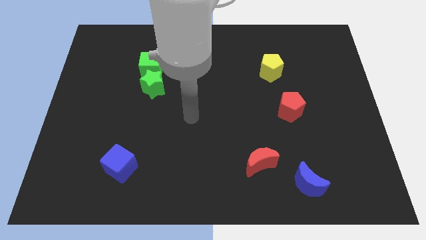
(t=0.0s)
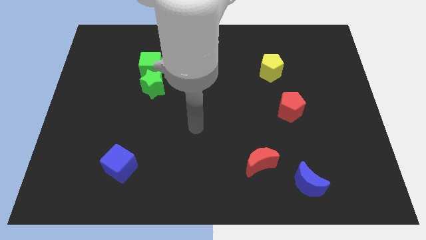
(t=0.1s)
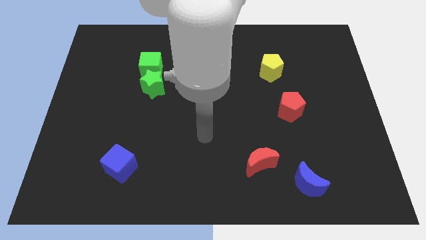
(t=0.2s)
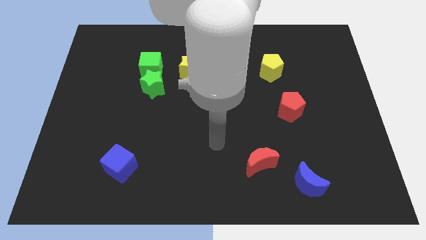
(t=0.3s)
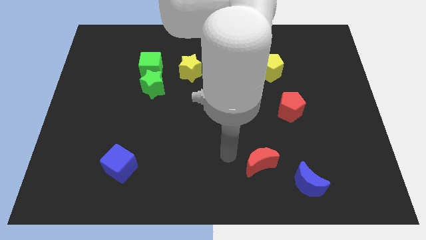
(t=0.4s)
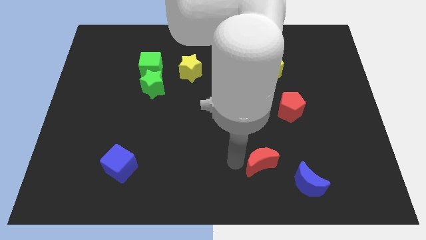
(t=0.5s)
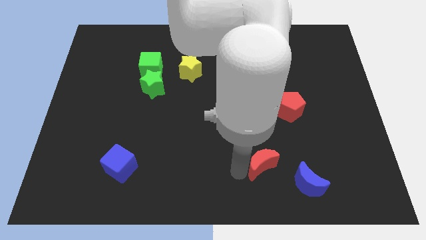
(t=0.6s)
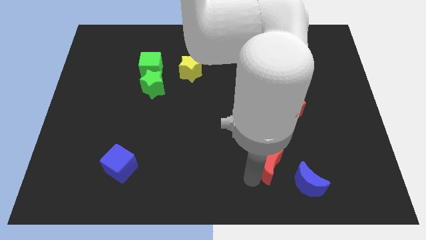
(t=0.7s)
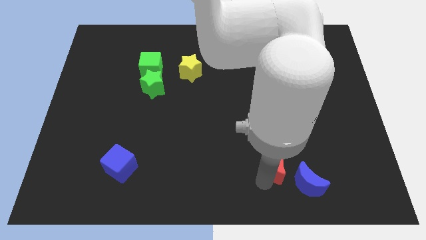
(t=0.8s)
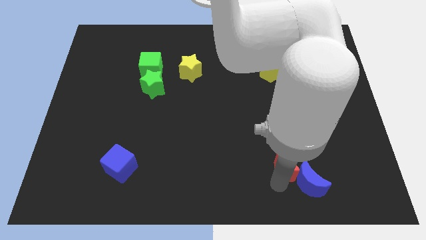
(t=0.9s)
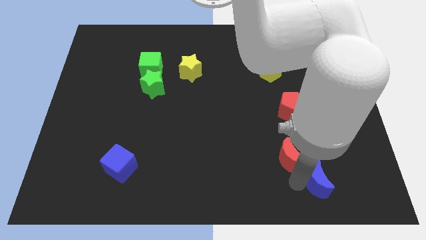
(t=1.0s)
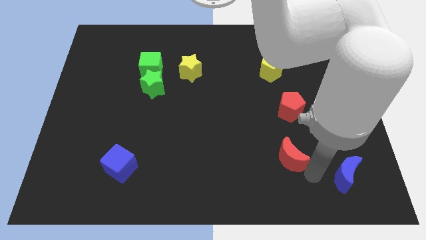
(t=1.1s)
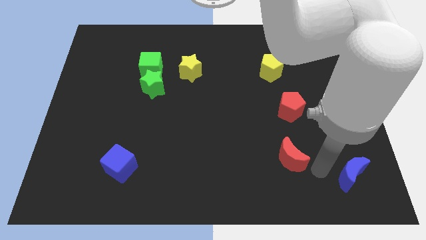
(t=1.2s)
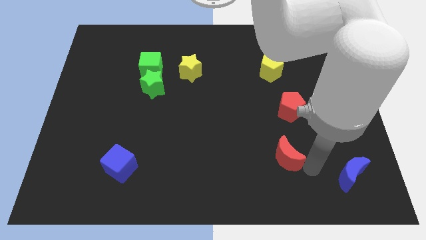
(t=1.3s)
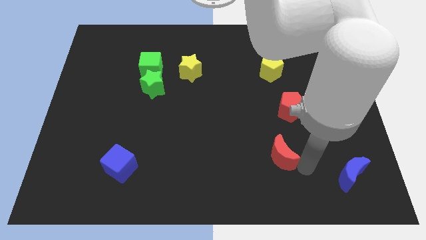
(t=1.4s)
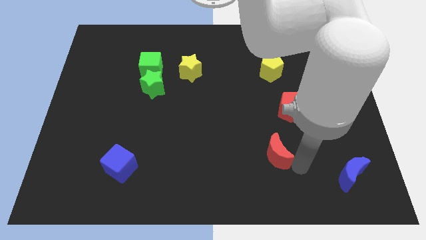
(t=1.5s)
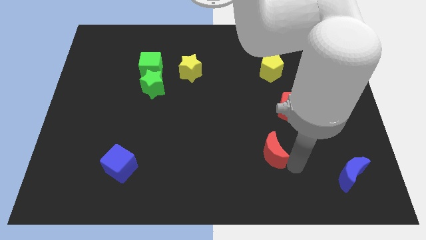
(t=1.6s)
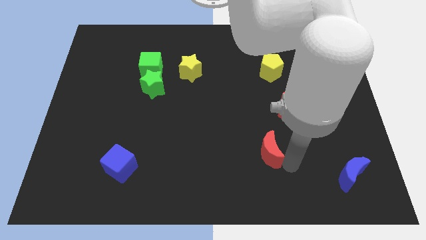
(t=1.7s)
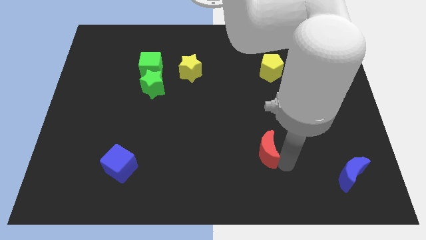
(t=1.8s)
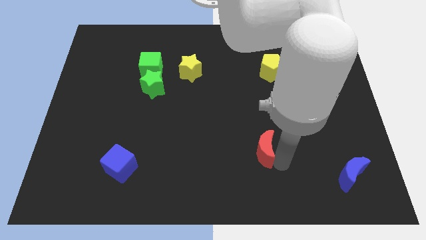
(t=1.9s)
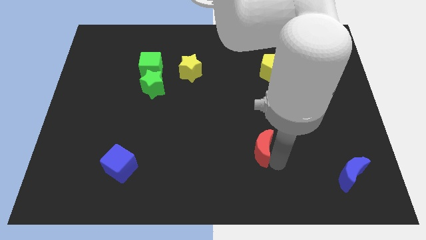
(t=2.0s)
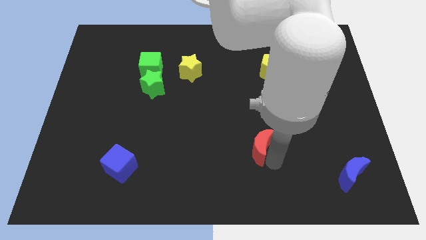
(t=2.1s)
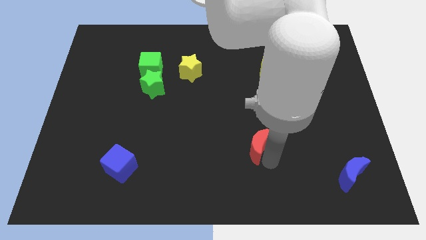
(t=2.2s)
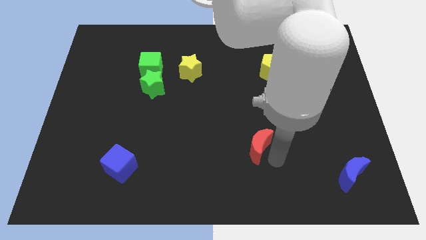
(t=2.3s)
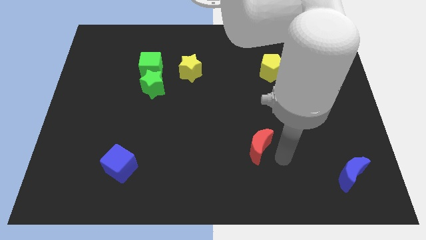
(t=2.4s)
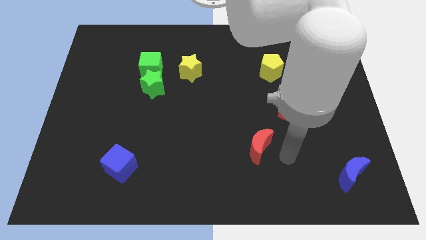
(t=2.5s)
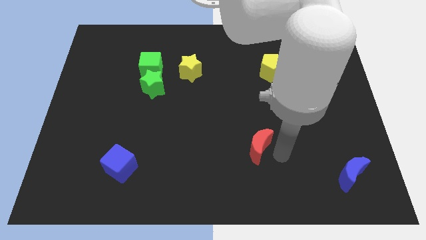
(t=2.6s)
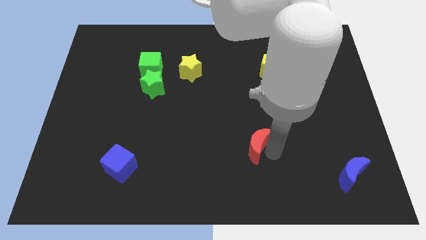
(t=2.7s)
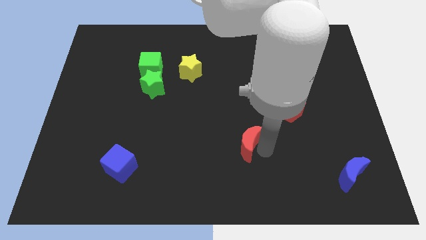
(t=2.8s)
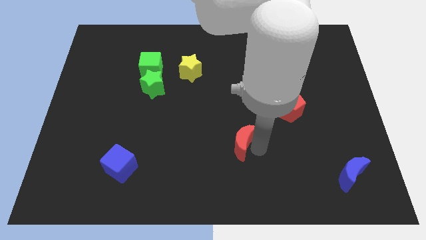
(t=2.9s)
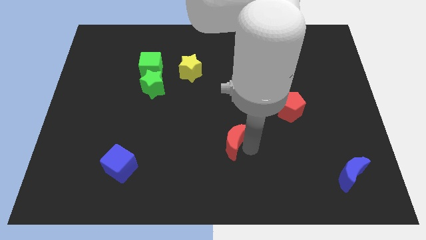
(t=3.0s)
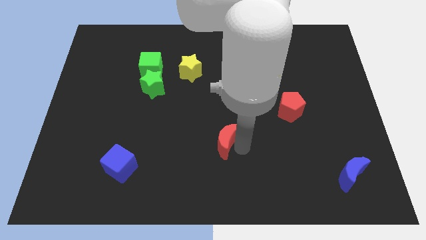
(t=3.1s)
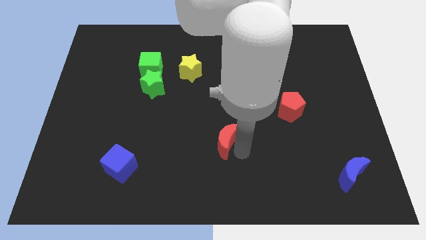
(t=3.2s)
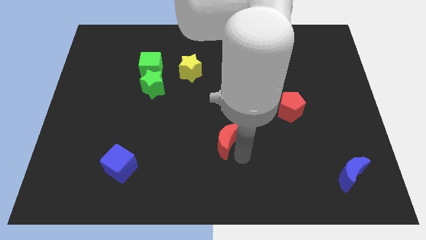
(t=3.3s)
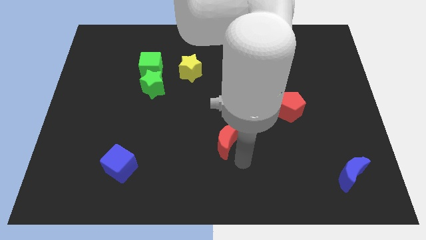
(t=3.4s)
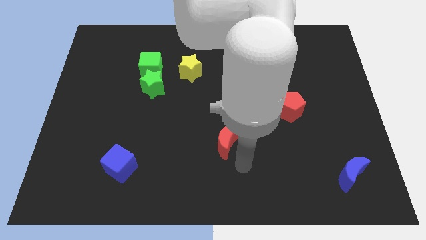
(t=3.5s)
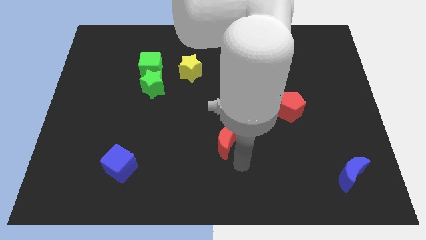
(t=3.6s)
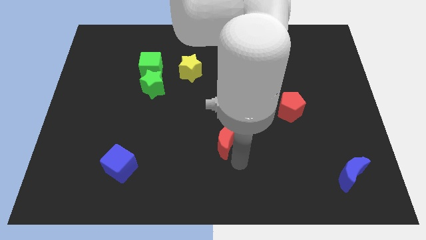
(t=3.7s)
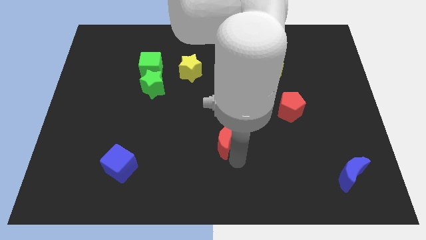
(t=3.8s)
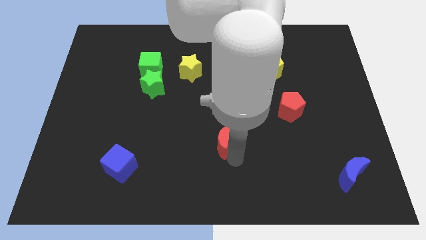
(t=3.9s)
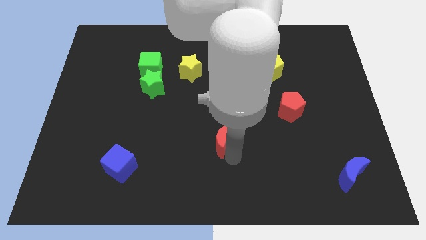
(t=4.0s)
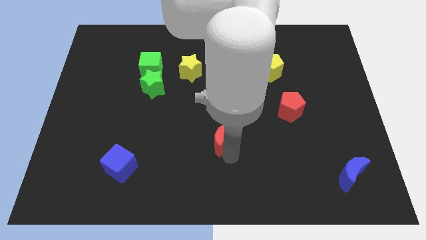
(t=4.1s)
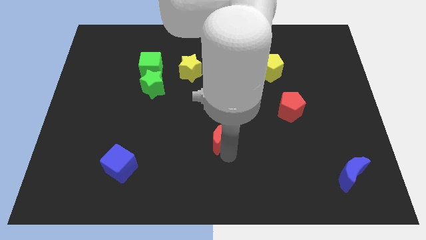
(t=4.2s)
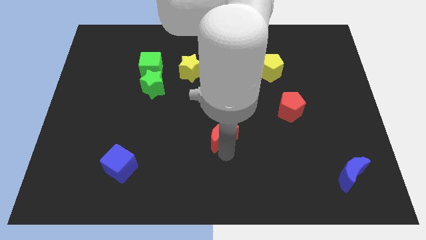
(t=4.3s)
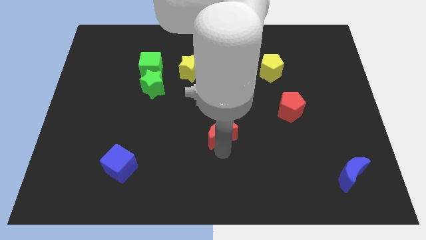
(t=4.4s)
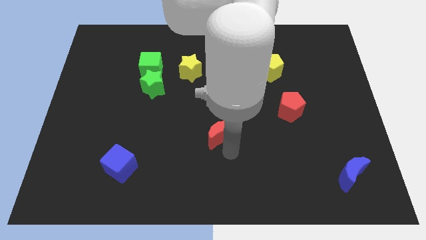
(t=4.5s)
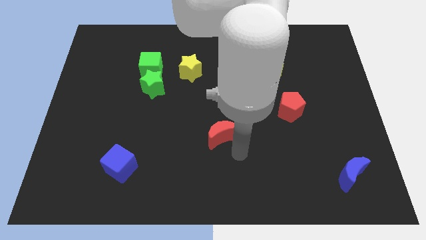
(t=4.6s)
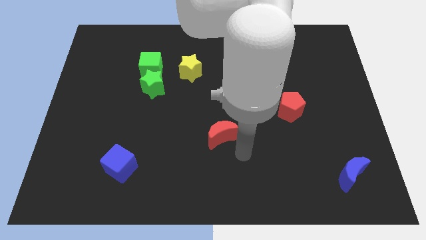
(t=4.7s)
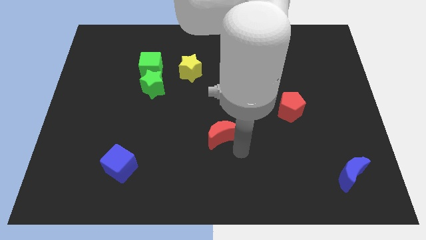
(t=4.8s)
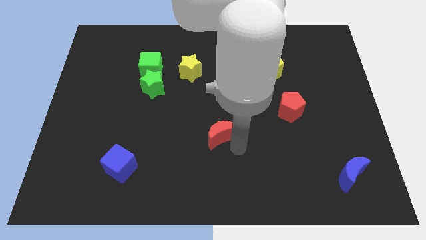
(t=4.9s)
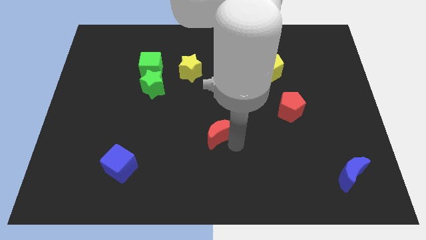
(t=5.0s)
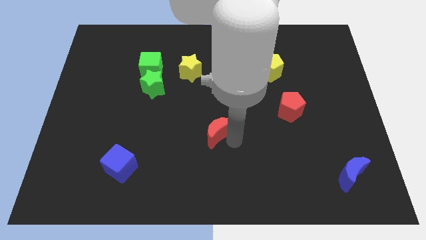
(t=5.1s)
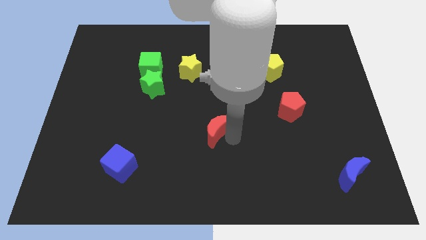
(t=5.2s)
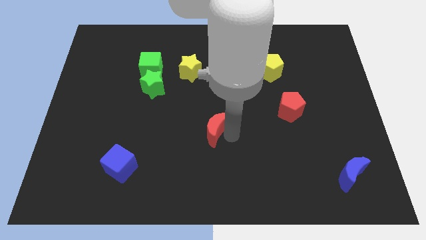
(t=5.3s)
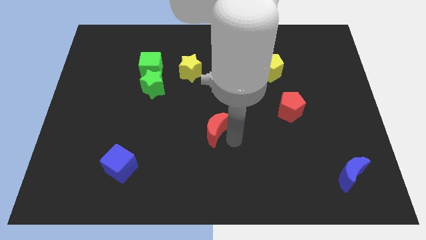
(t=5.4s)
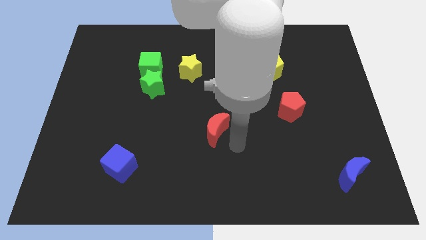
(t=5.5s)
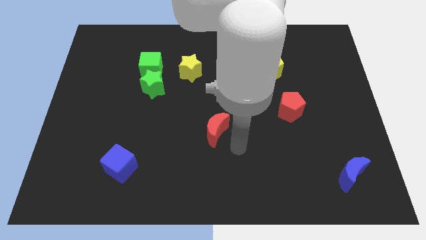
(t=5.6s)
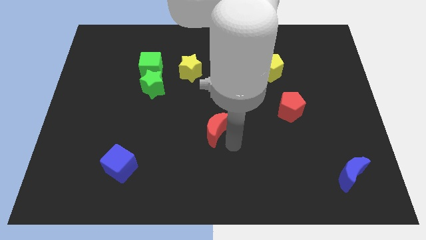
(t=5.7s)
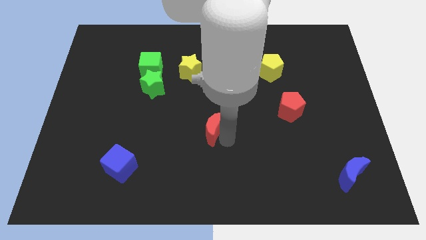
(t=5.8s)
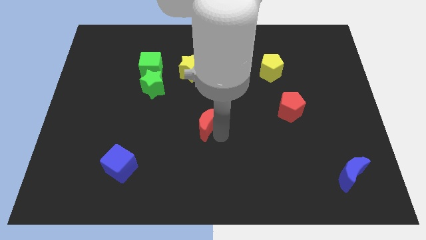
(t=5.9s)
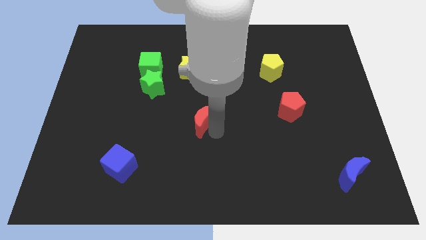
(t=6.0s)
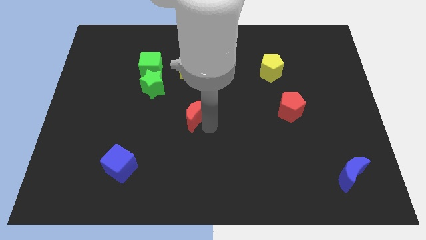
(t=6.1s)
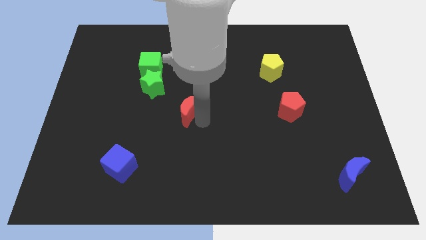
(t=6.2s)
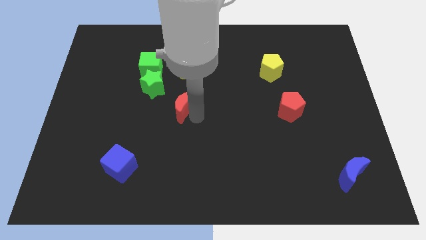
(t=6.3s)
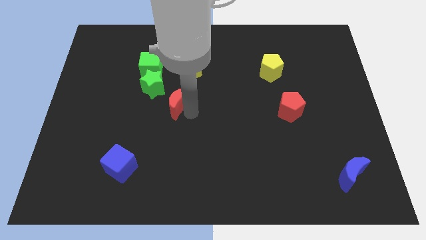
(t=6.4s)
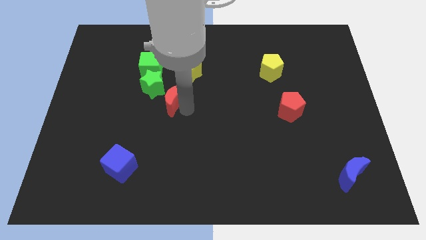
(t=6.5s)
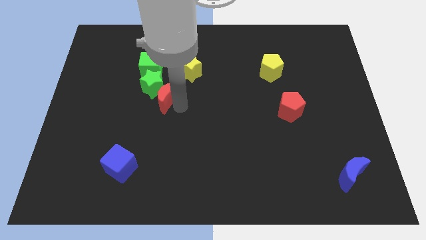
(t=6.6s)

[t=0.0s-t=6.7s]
put the red moon next to the green star
